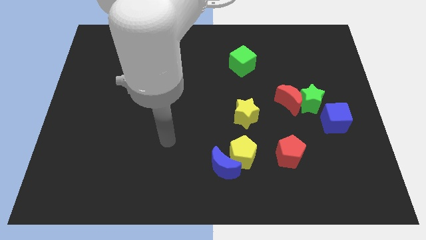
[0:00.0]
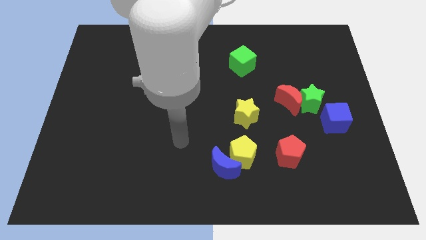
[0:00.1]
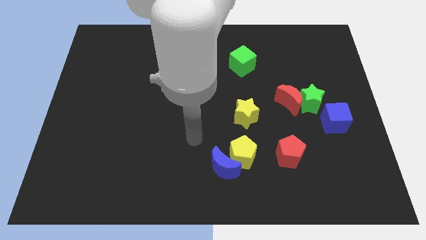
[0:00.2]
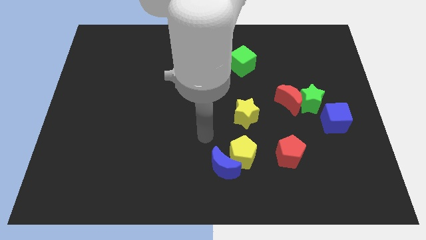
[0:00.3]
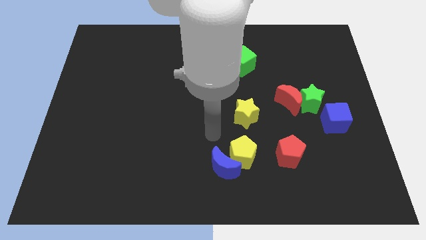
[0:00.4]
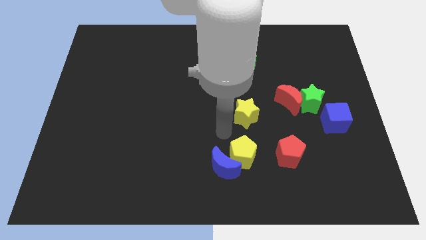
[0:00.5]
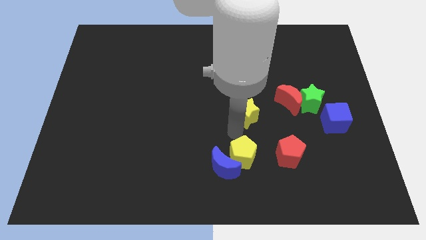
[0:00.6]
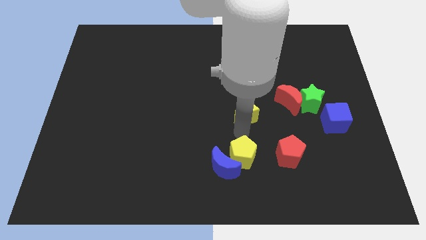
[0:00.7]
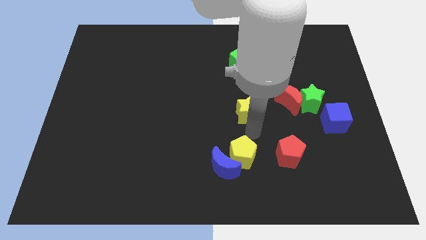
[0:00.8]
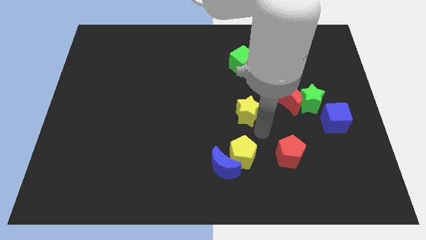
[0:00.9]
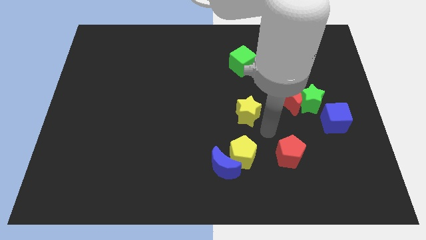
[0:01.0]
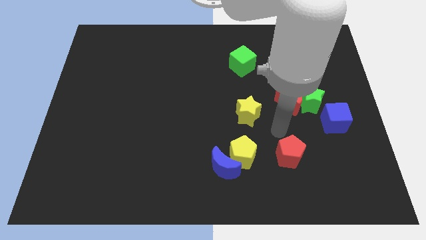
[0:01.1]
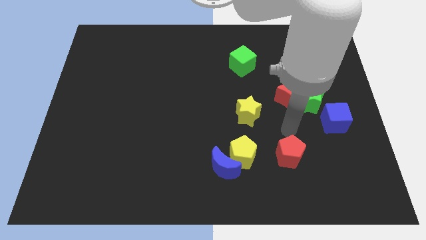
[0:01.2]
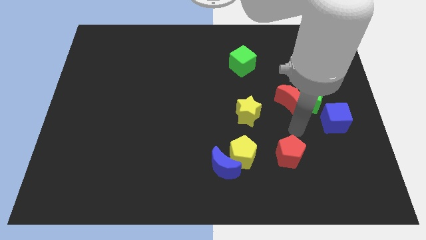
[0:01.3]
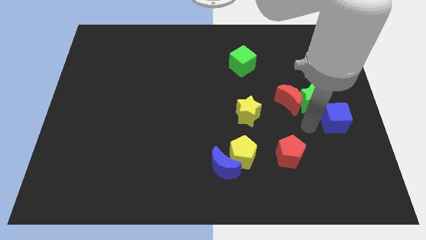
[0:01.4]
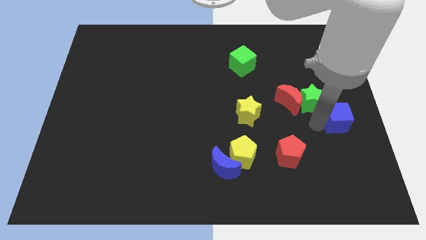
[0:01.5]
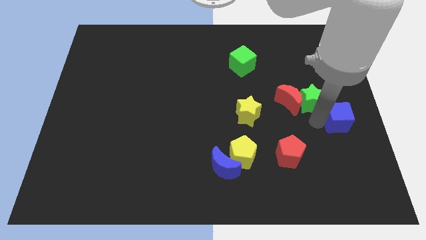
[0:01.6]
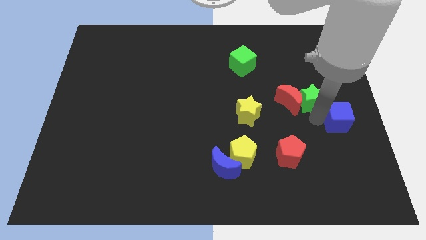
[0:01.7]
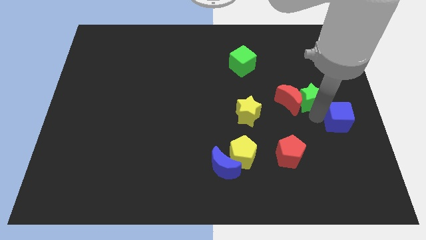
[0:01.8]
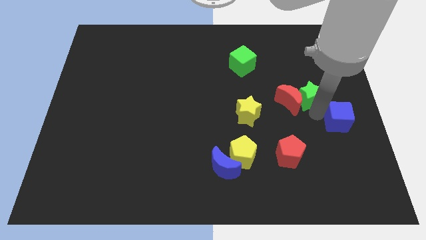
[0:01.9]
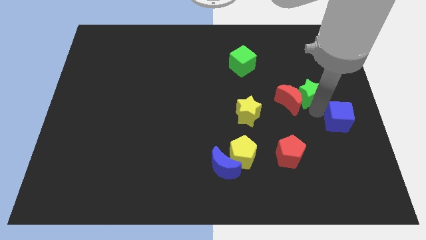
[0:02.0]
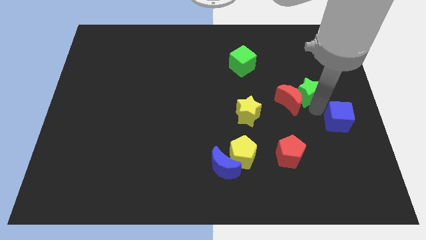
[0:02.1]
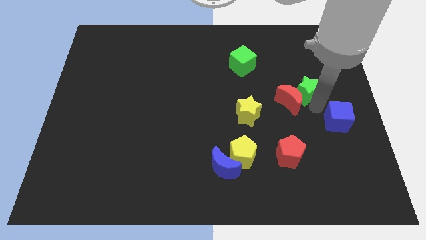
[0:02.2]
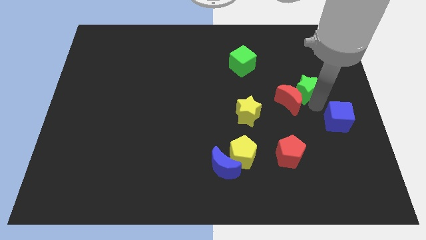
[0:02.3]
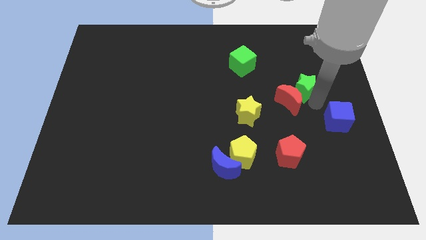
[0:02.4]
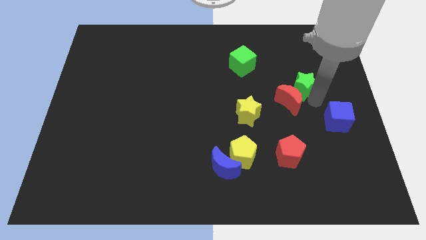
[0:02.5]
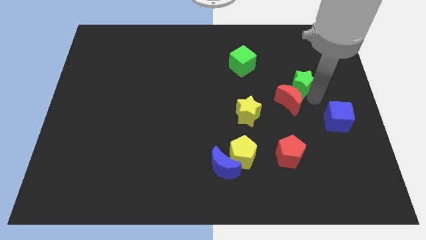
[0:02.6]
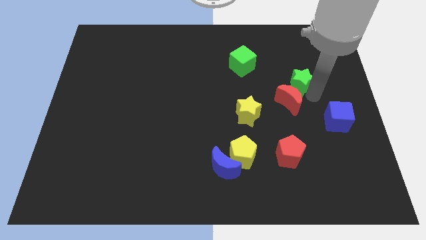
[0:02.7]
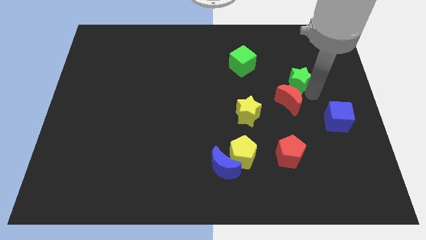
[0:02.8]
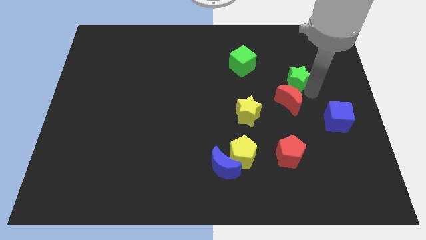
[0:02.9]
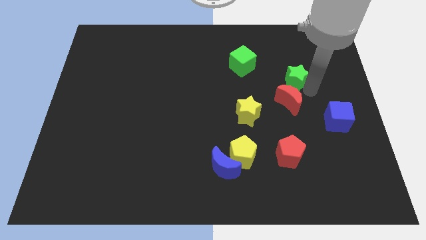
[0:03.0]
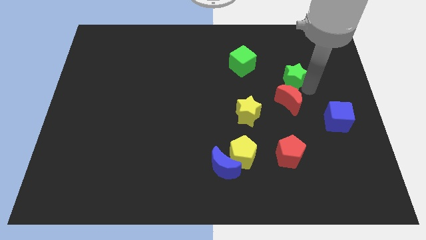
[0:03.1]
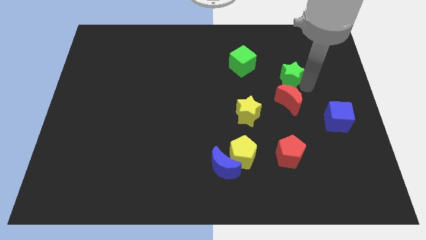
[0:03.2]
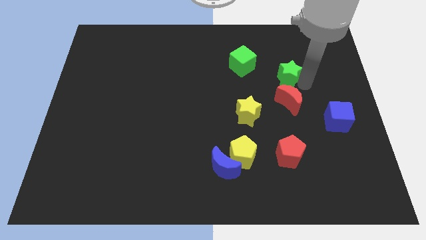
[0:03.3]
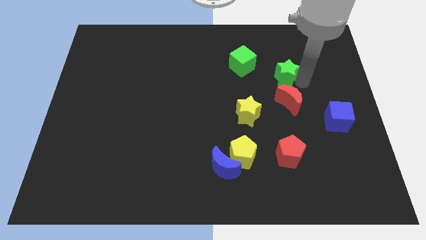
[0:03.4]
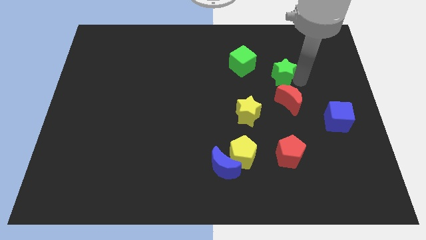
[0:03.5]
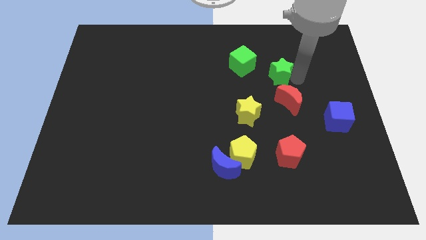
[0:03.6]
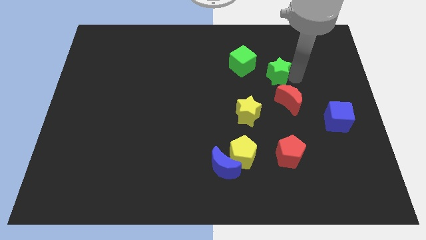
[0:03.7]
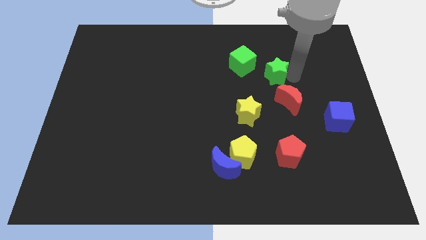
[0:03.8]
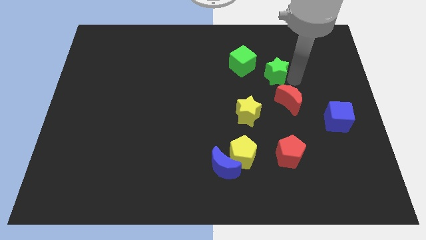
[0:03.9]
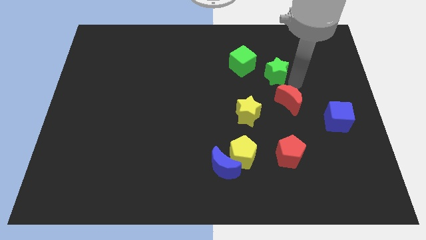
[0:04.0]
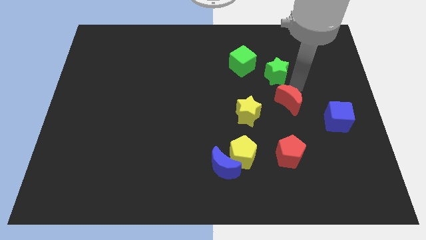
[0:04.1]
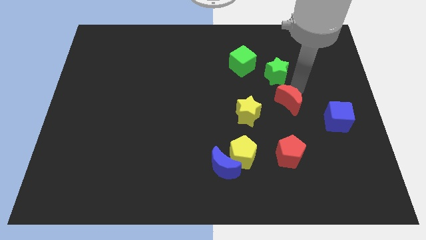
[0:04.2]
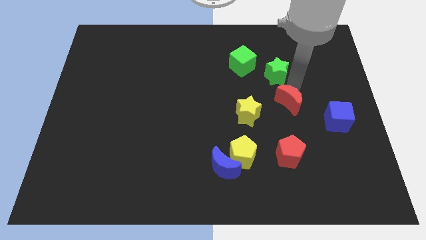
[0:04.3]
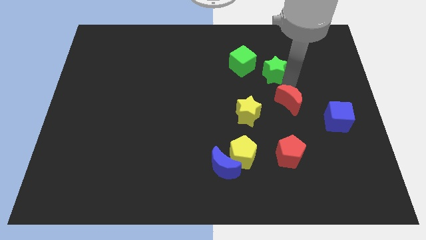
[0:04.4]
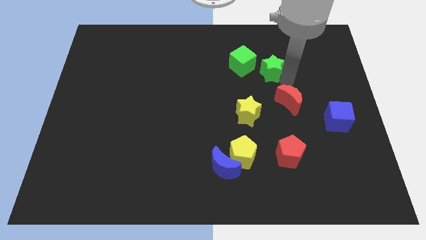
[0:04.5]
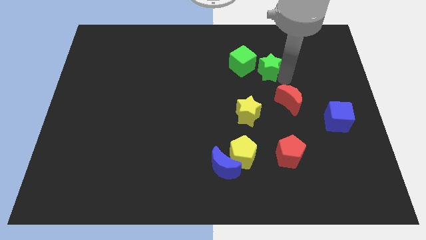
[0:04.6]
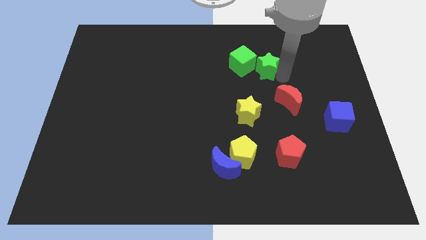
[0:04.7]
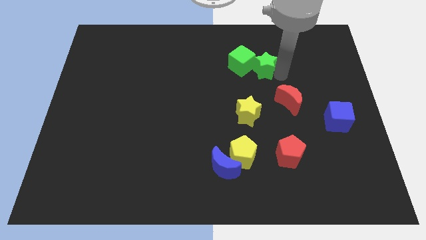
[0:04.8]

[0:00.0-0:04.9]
put the green star towards the green cube

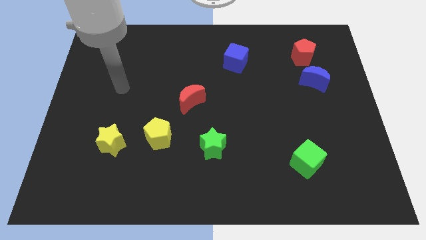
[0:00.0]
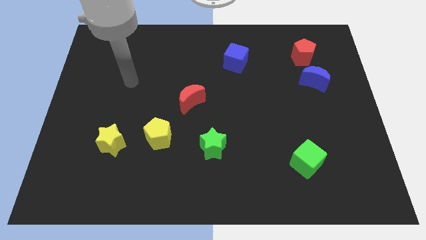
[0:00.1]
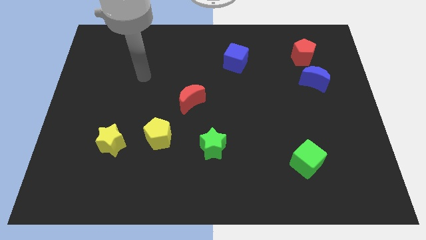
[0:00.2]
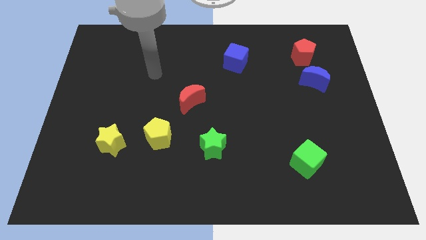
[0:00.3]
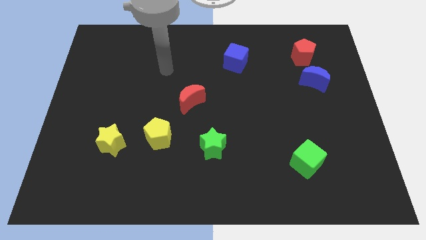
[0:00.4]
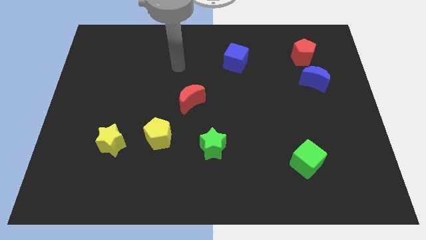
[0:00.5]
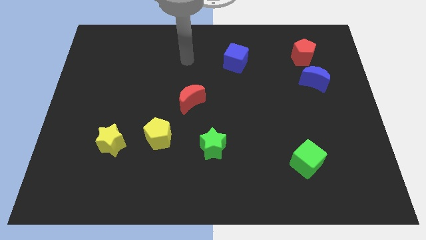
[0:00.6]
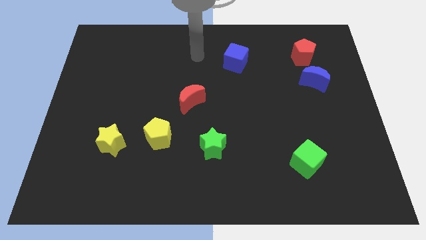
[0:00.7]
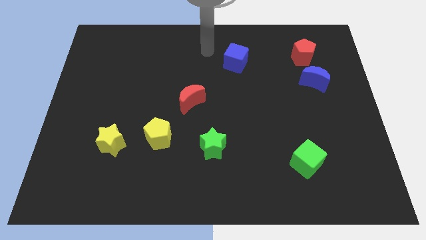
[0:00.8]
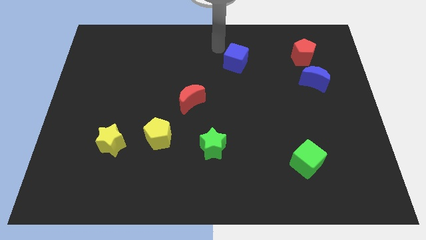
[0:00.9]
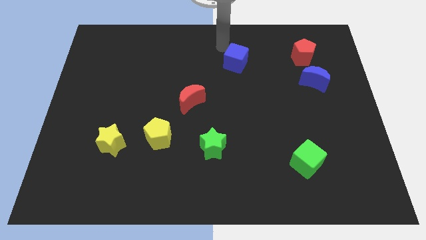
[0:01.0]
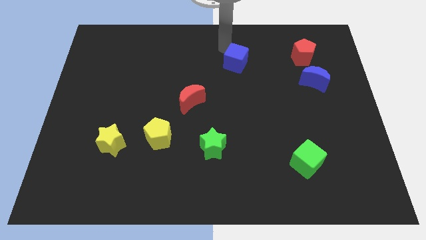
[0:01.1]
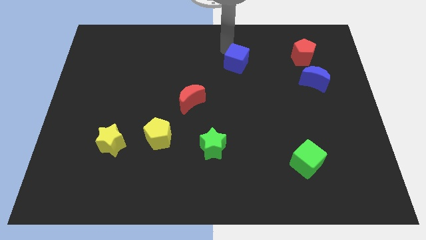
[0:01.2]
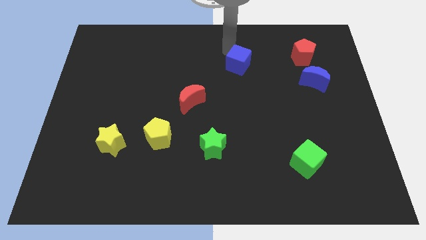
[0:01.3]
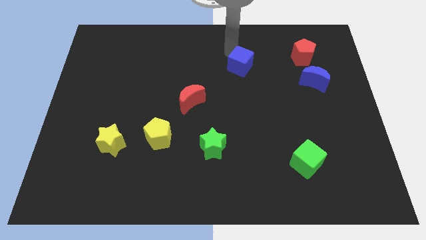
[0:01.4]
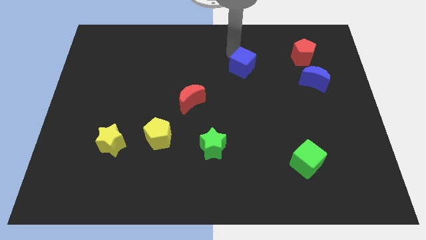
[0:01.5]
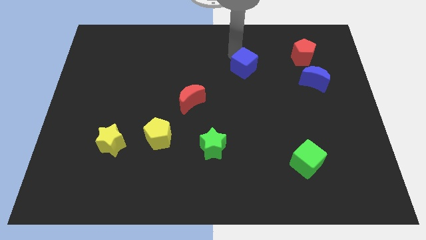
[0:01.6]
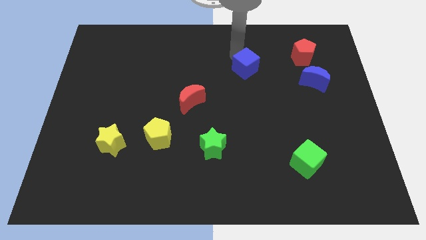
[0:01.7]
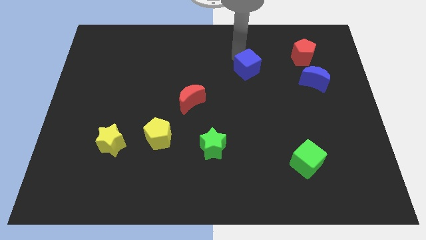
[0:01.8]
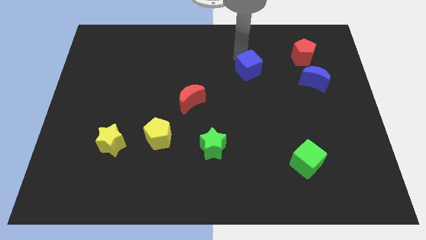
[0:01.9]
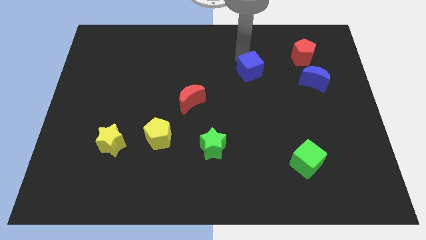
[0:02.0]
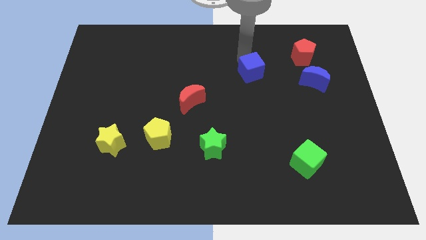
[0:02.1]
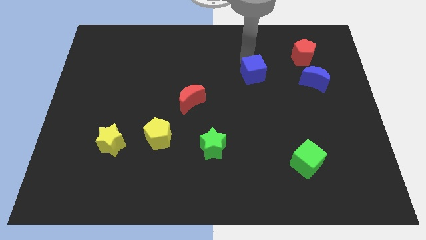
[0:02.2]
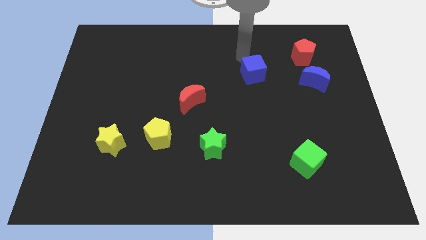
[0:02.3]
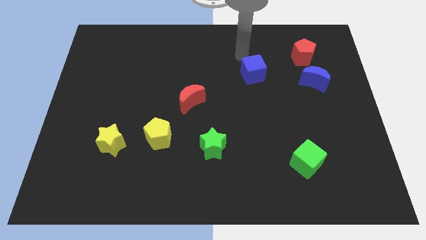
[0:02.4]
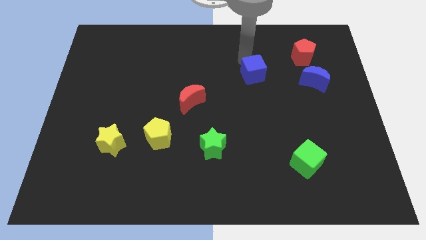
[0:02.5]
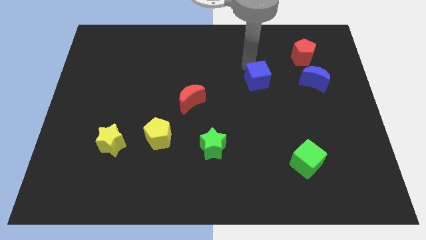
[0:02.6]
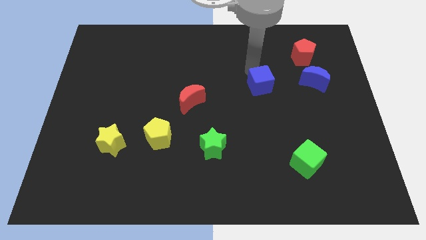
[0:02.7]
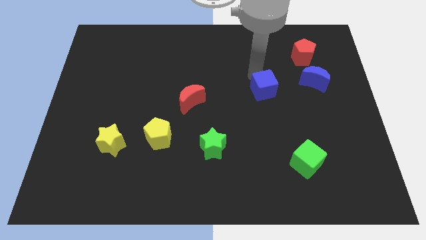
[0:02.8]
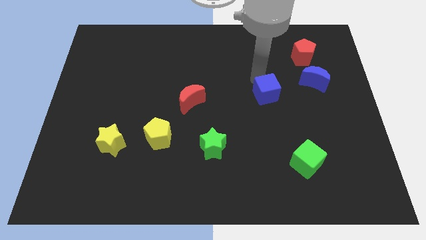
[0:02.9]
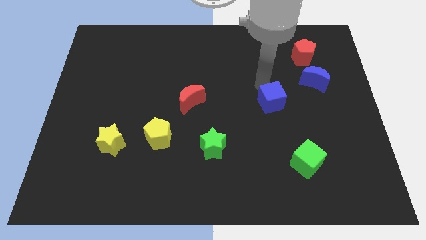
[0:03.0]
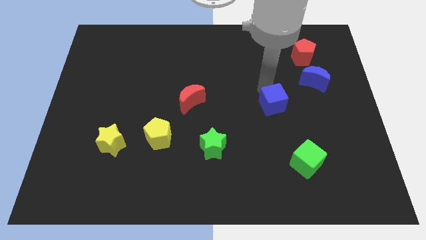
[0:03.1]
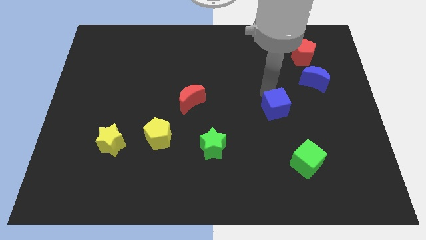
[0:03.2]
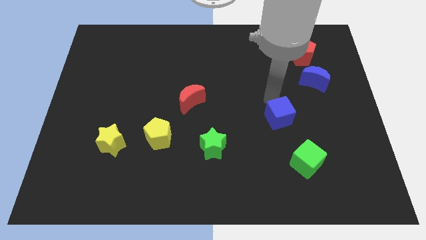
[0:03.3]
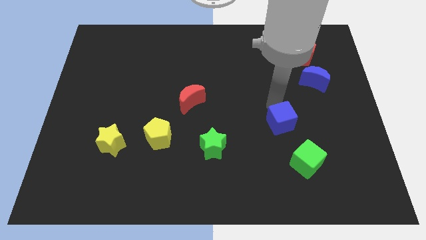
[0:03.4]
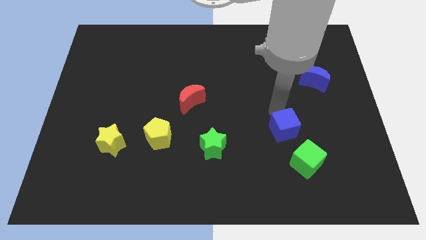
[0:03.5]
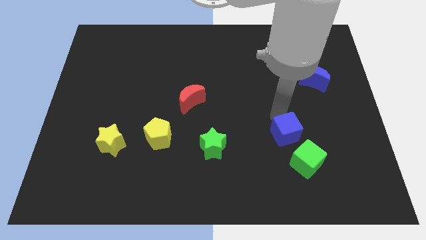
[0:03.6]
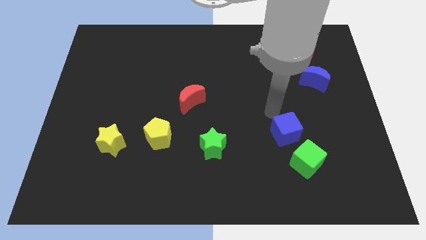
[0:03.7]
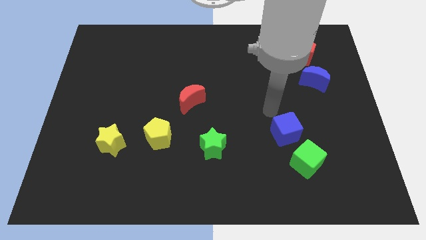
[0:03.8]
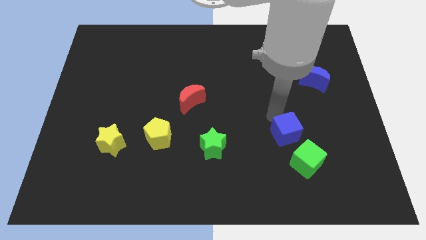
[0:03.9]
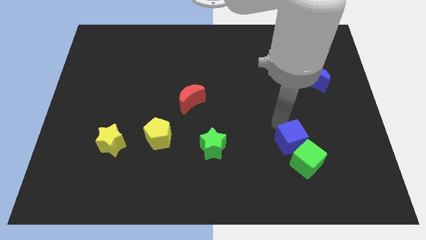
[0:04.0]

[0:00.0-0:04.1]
put the blue cube towards the green cube
